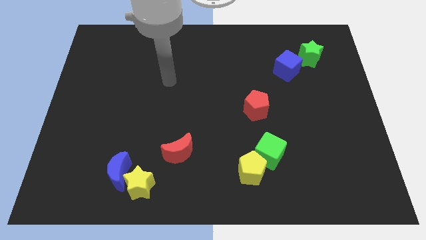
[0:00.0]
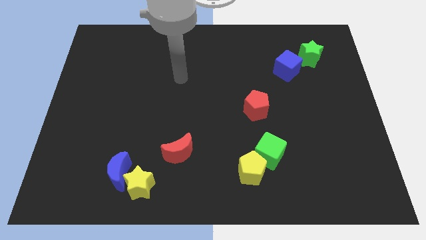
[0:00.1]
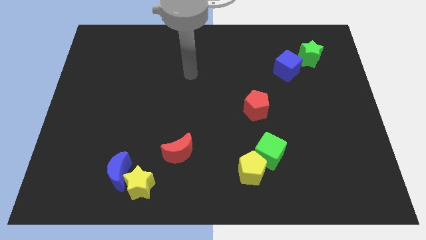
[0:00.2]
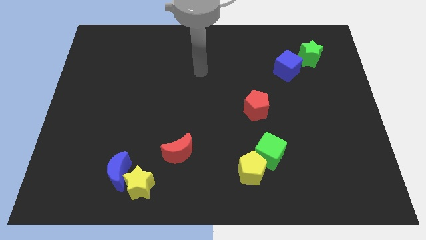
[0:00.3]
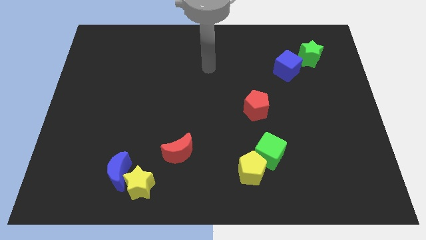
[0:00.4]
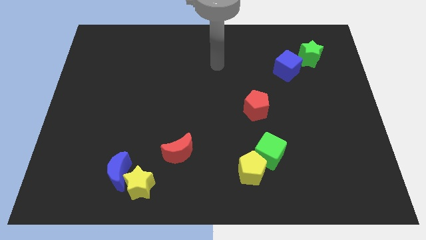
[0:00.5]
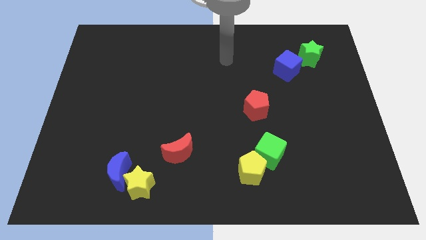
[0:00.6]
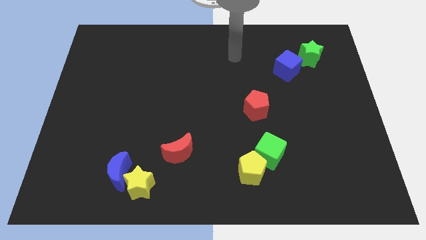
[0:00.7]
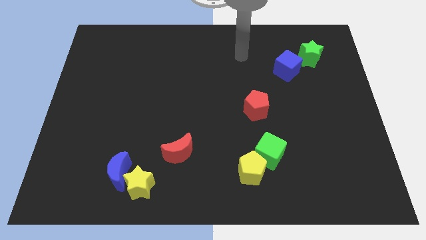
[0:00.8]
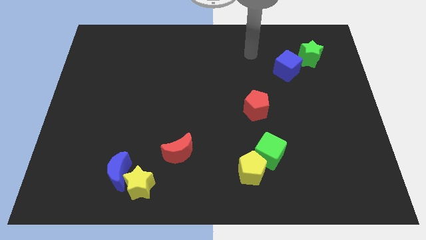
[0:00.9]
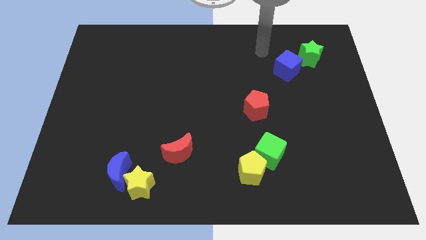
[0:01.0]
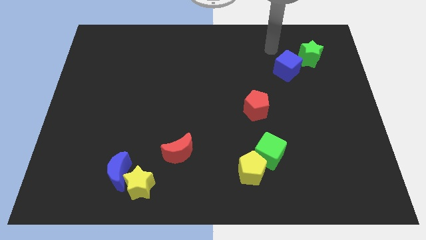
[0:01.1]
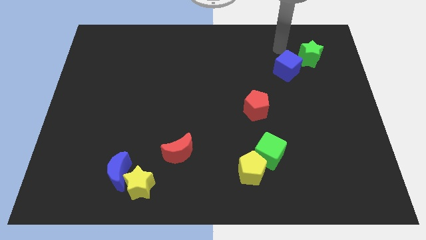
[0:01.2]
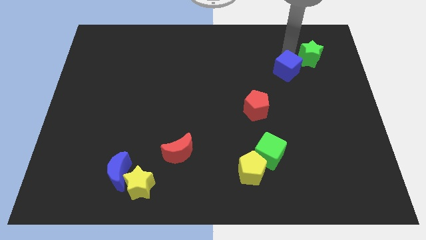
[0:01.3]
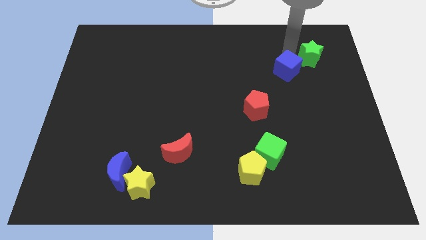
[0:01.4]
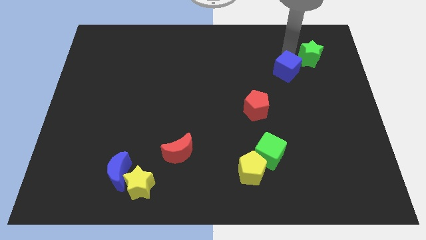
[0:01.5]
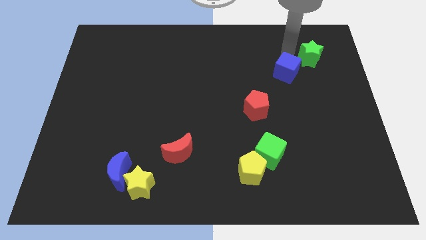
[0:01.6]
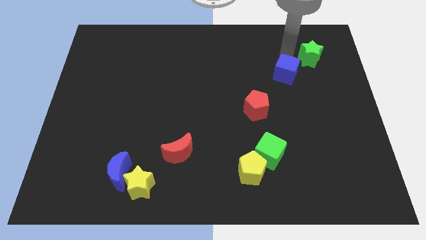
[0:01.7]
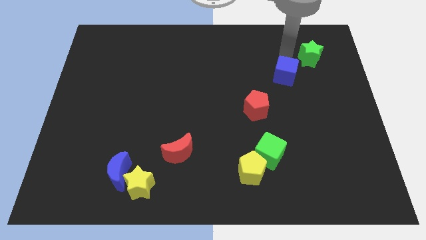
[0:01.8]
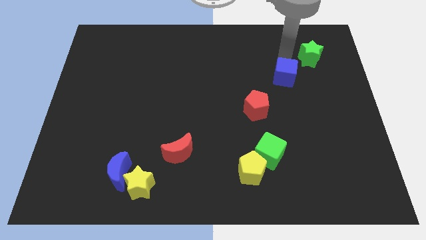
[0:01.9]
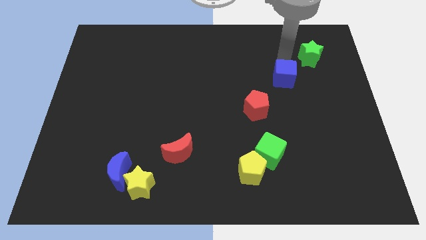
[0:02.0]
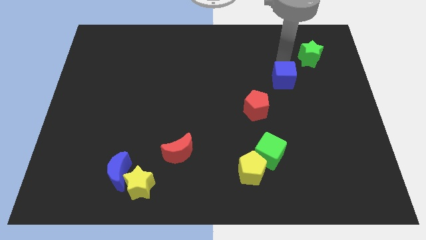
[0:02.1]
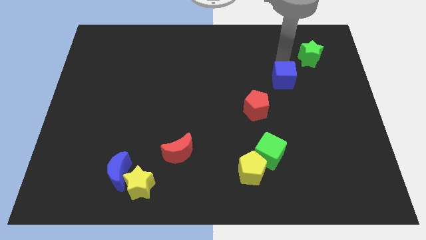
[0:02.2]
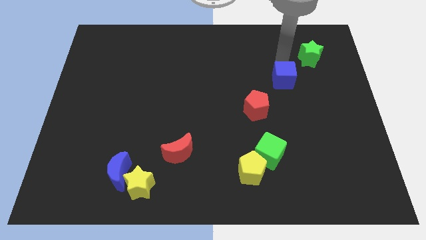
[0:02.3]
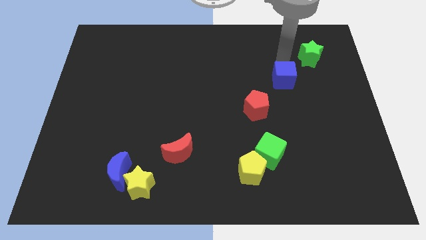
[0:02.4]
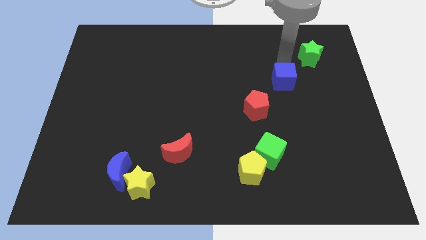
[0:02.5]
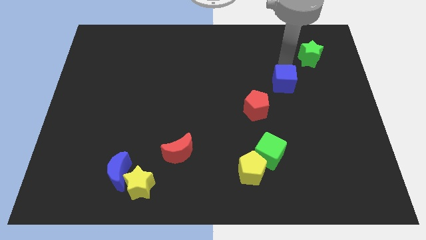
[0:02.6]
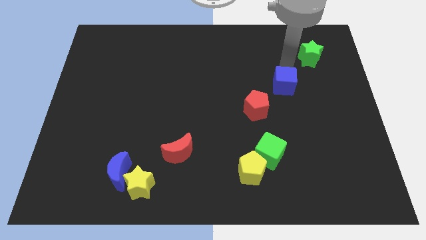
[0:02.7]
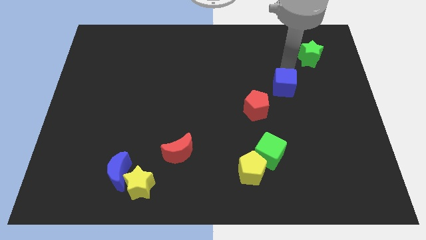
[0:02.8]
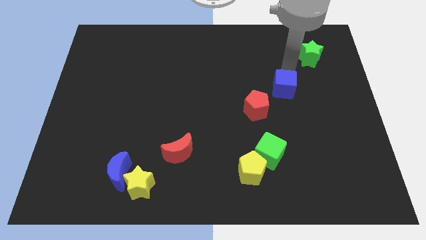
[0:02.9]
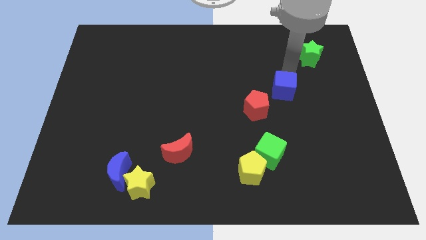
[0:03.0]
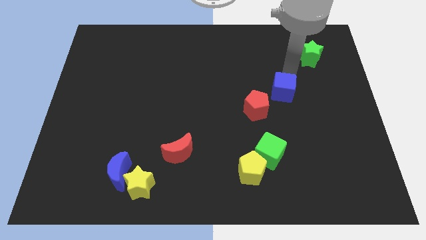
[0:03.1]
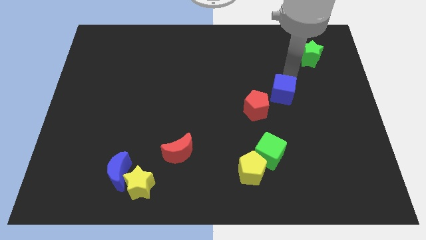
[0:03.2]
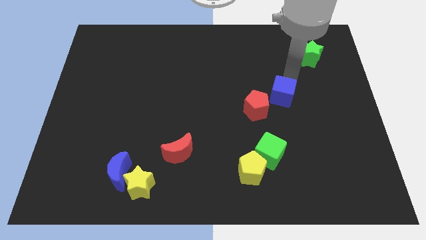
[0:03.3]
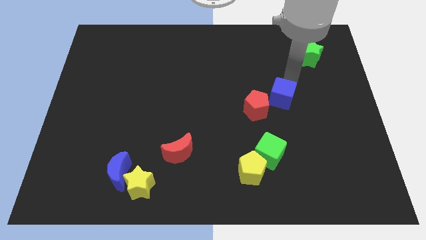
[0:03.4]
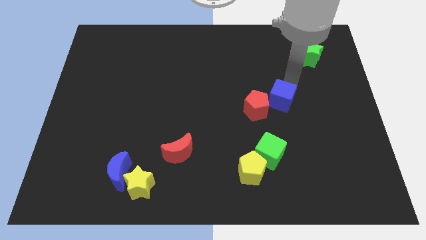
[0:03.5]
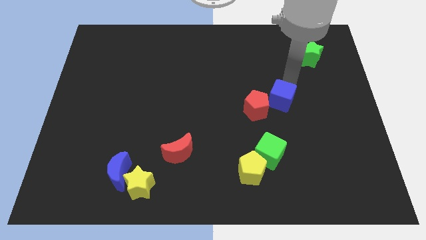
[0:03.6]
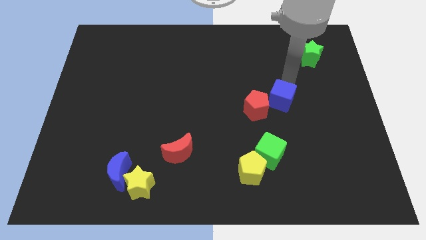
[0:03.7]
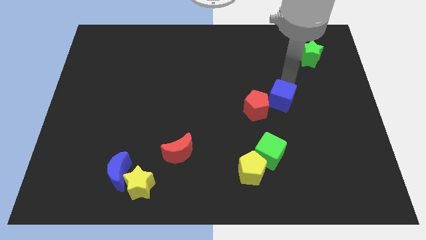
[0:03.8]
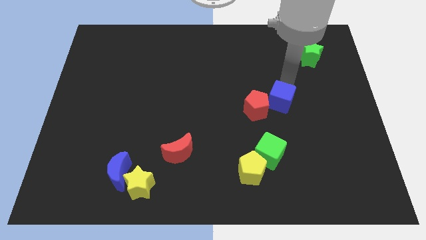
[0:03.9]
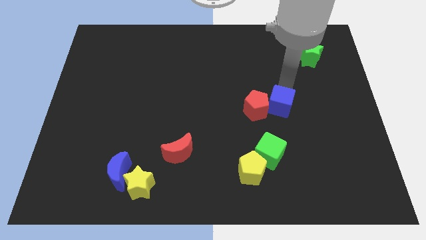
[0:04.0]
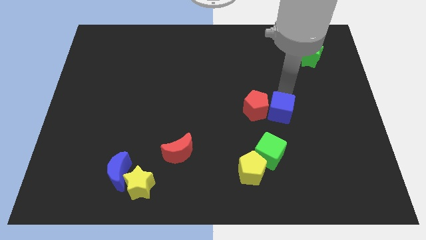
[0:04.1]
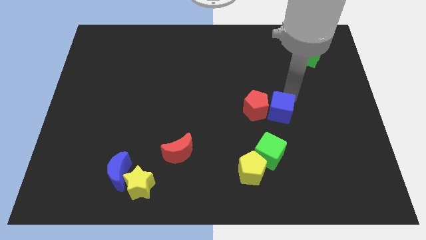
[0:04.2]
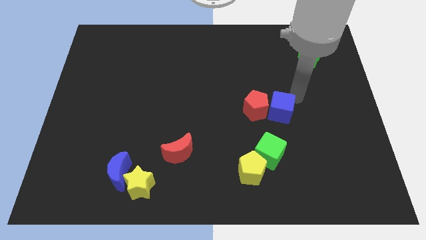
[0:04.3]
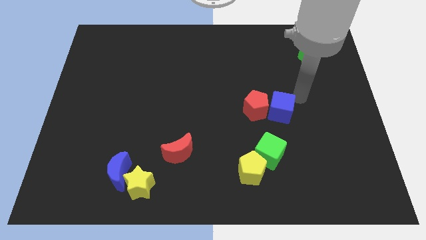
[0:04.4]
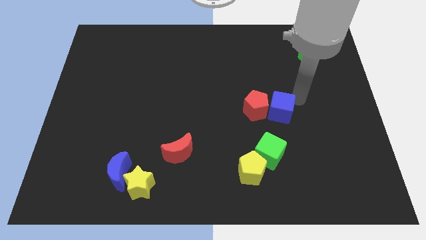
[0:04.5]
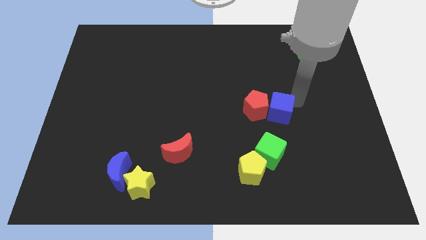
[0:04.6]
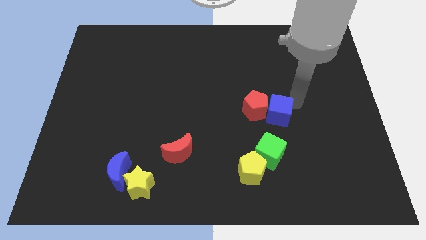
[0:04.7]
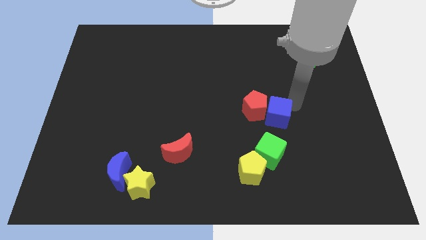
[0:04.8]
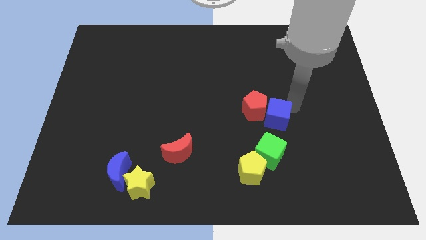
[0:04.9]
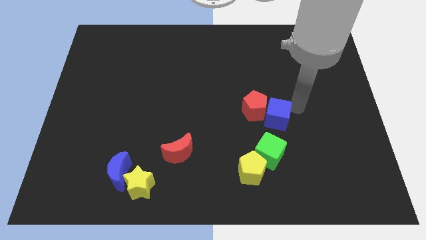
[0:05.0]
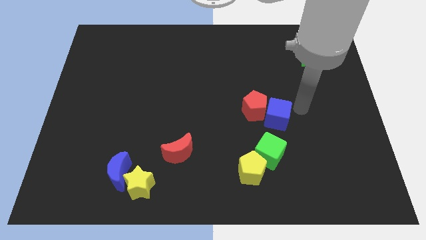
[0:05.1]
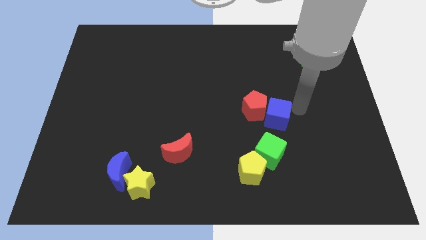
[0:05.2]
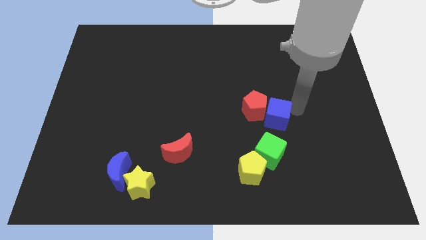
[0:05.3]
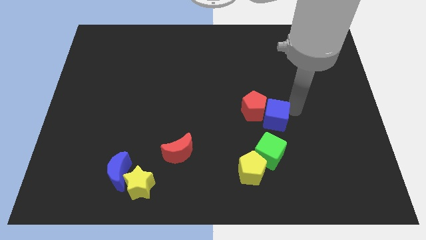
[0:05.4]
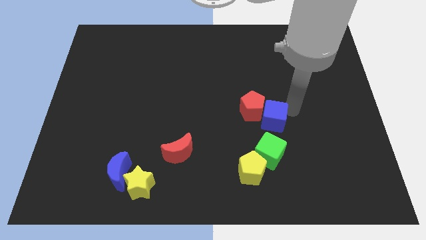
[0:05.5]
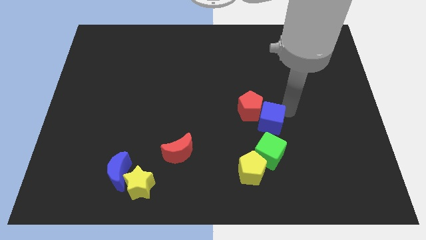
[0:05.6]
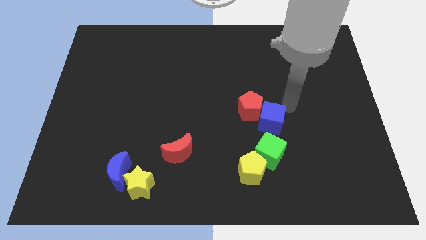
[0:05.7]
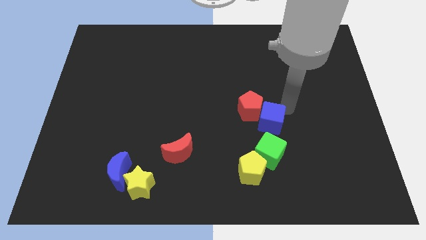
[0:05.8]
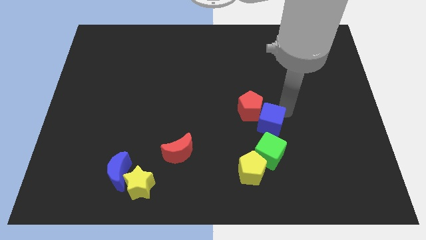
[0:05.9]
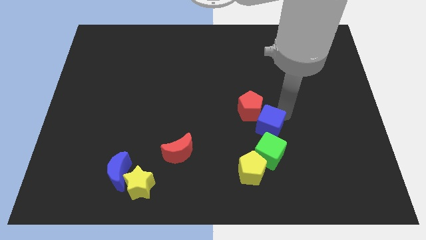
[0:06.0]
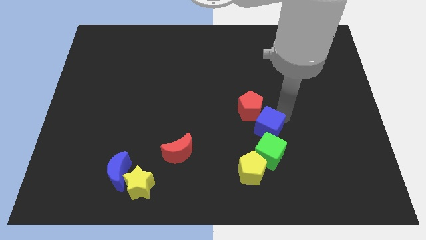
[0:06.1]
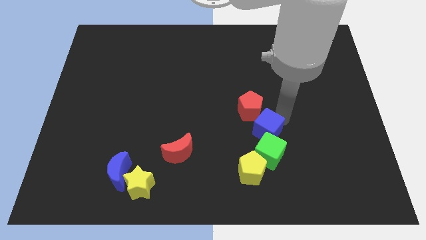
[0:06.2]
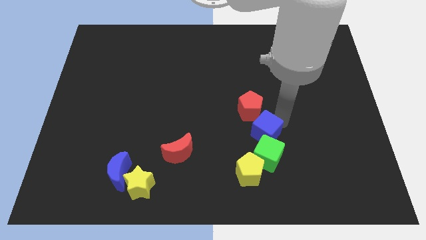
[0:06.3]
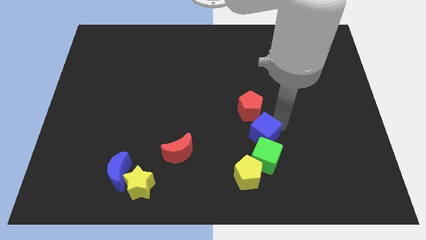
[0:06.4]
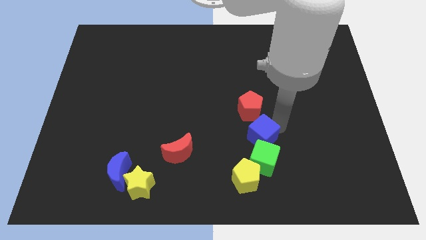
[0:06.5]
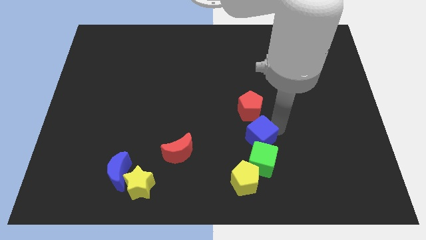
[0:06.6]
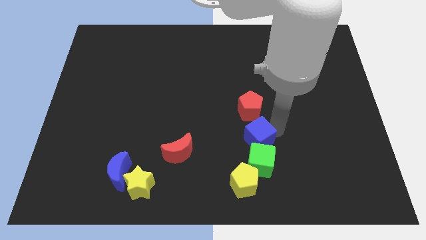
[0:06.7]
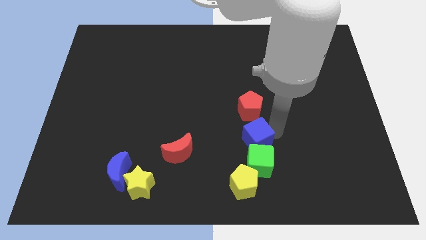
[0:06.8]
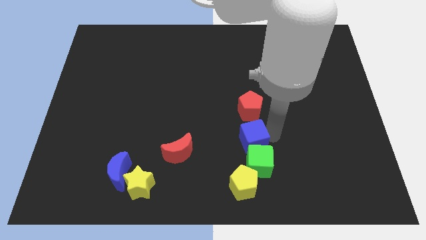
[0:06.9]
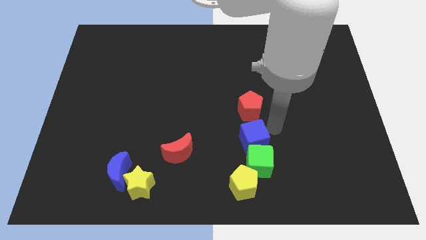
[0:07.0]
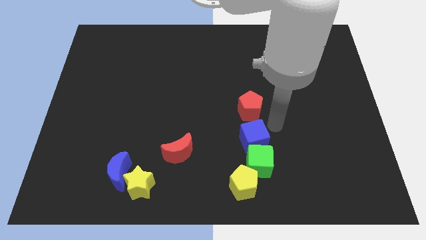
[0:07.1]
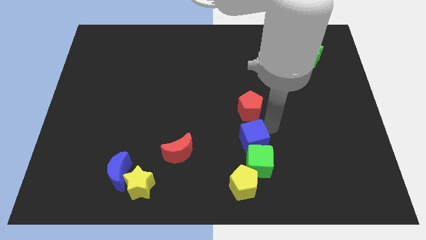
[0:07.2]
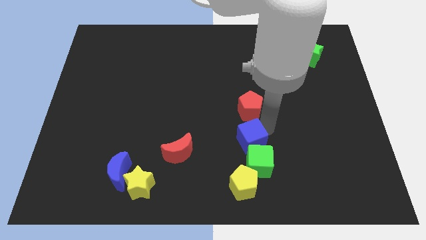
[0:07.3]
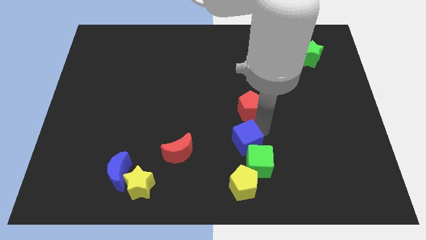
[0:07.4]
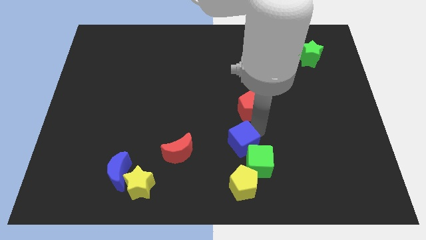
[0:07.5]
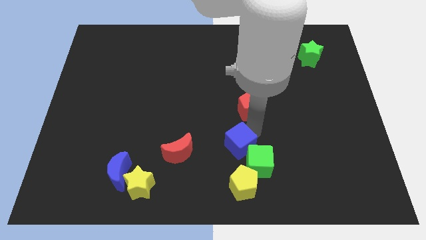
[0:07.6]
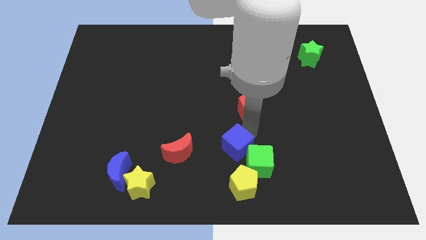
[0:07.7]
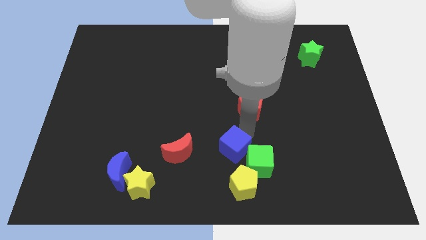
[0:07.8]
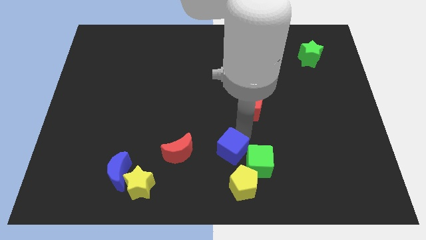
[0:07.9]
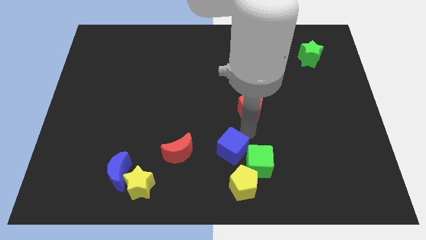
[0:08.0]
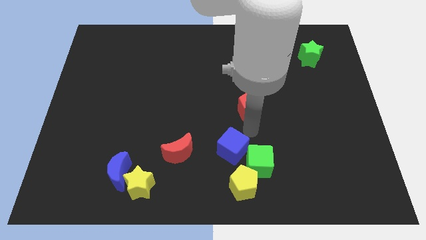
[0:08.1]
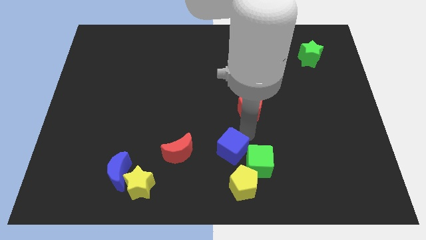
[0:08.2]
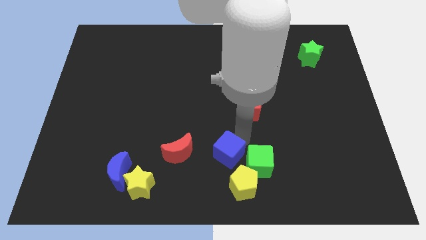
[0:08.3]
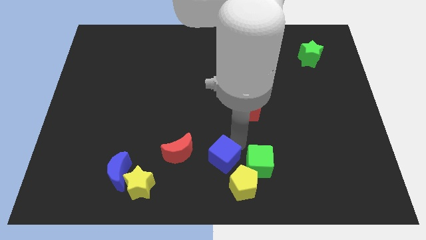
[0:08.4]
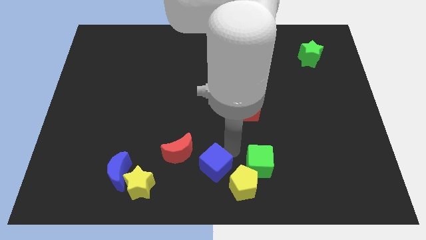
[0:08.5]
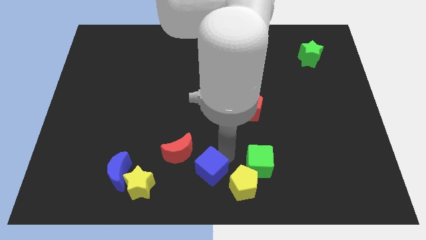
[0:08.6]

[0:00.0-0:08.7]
push the blue cube to the right of the yellow star
